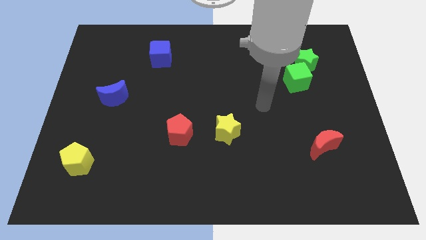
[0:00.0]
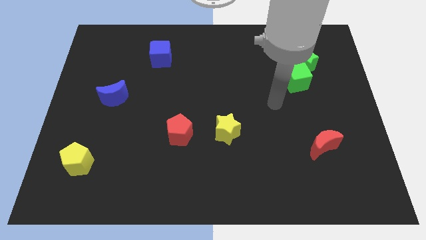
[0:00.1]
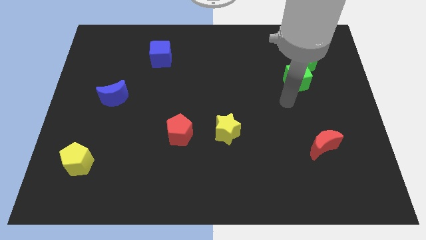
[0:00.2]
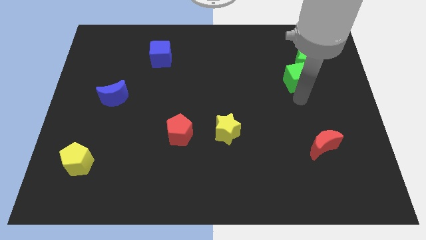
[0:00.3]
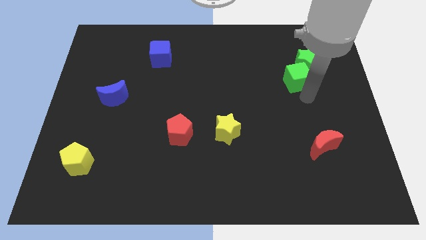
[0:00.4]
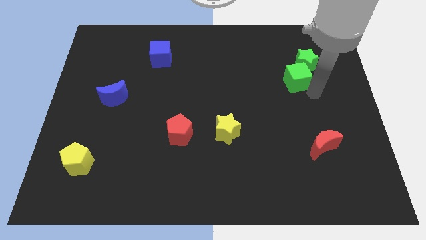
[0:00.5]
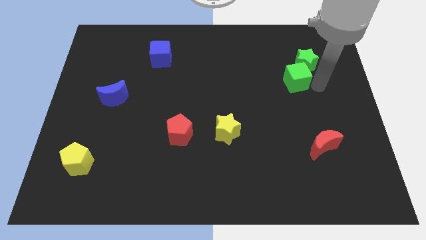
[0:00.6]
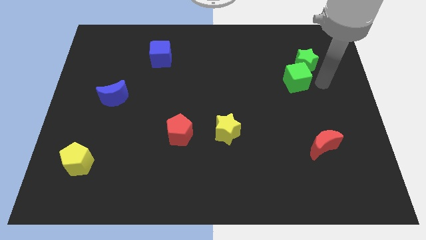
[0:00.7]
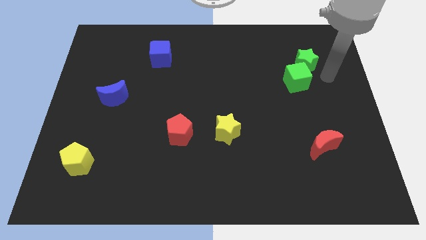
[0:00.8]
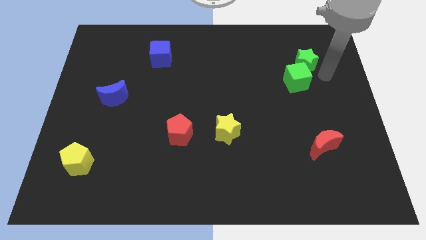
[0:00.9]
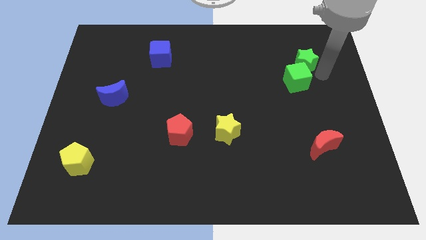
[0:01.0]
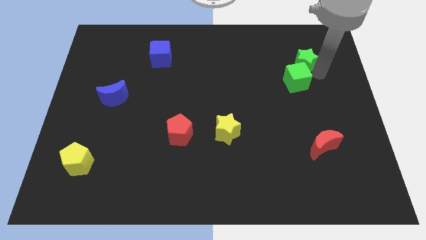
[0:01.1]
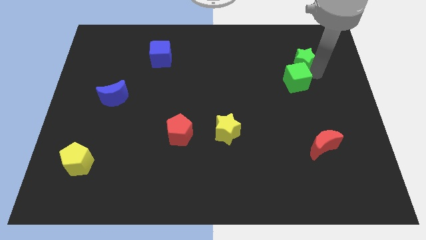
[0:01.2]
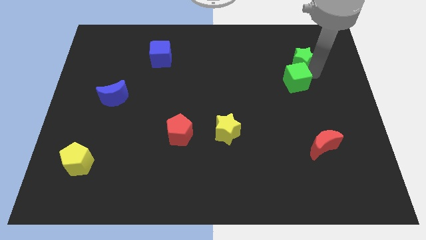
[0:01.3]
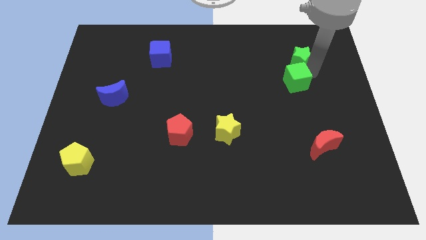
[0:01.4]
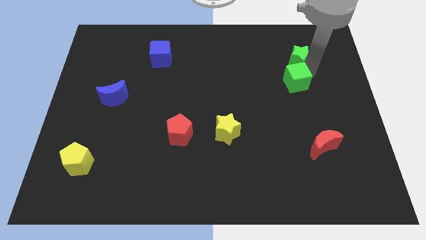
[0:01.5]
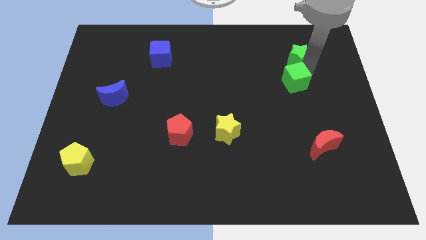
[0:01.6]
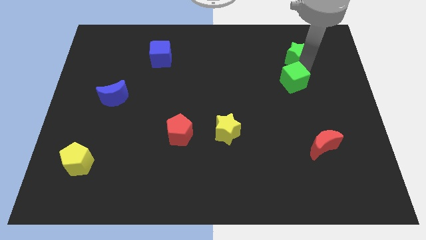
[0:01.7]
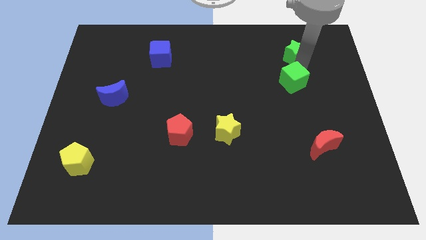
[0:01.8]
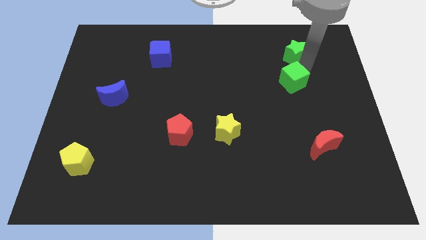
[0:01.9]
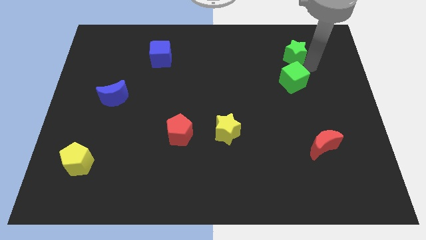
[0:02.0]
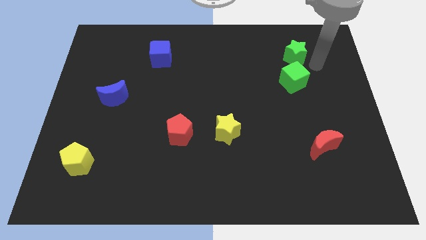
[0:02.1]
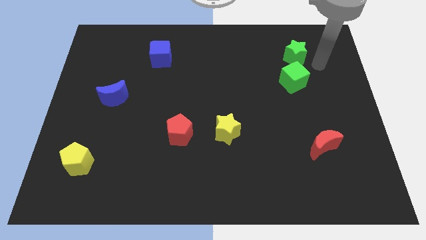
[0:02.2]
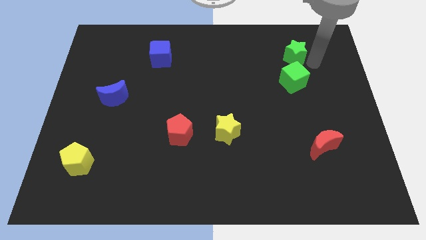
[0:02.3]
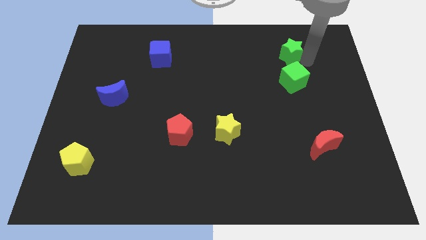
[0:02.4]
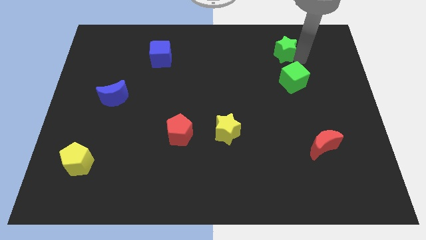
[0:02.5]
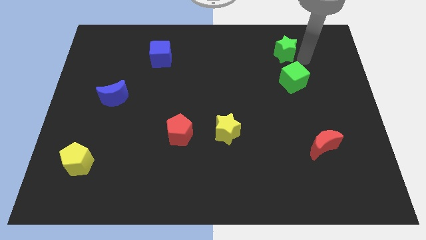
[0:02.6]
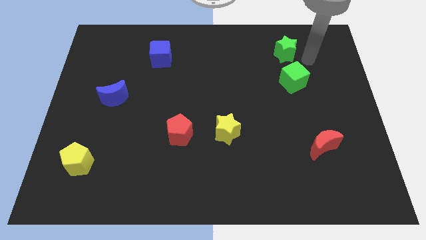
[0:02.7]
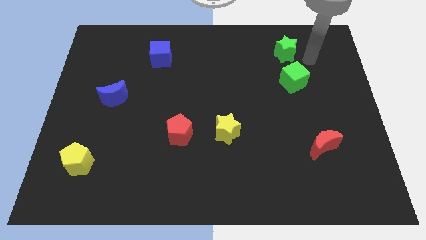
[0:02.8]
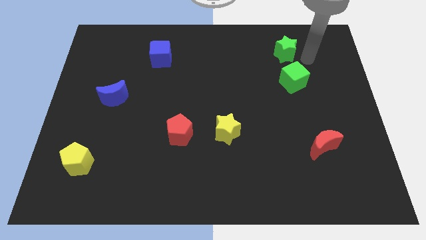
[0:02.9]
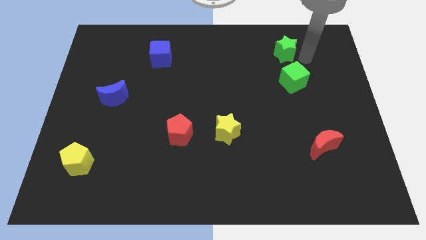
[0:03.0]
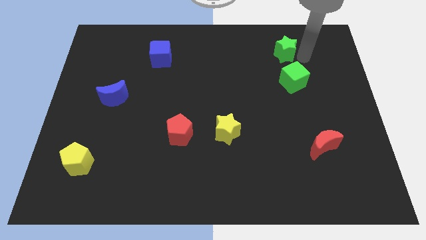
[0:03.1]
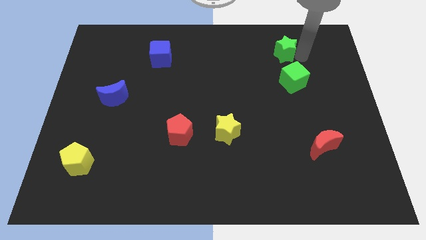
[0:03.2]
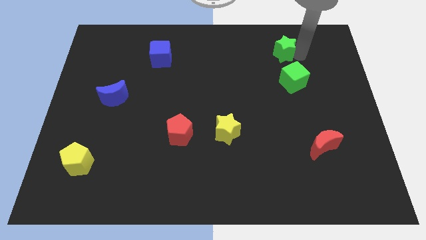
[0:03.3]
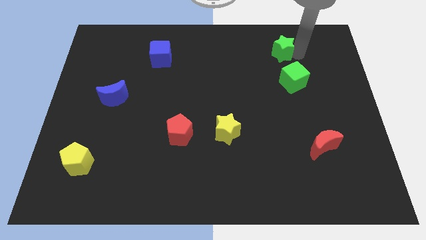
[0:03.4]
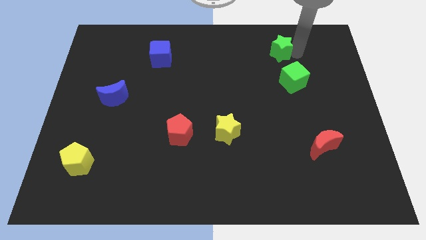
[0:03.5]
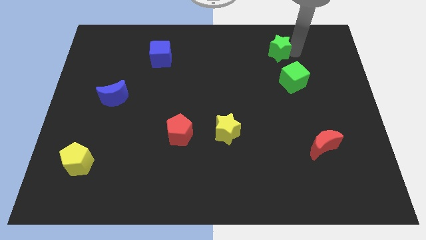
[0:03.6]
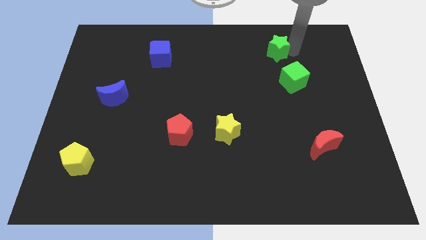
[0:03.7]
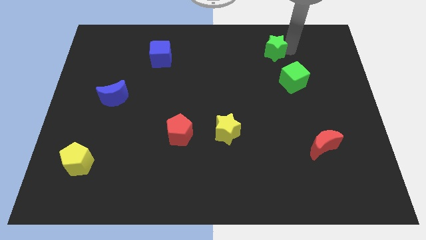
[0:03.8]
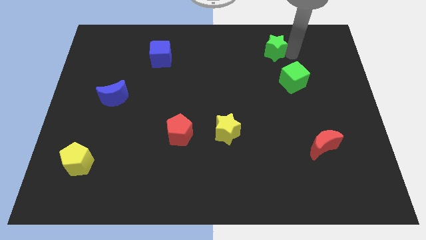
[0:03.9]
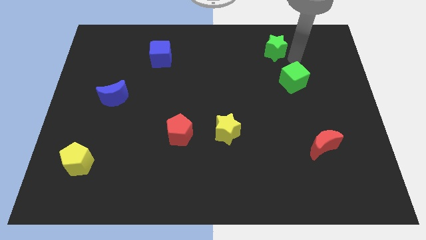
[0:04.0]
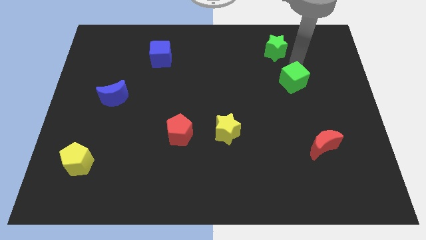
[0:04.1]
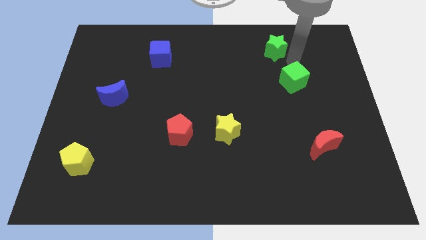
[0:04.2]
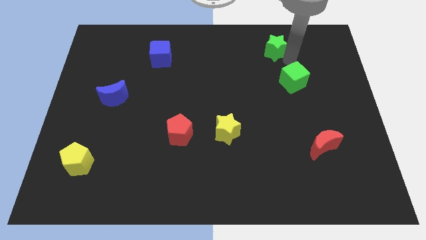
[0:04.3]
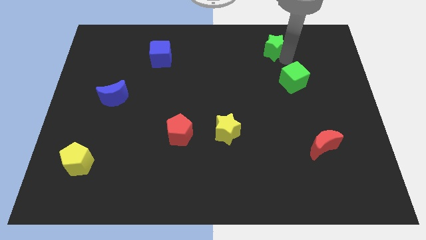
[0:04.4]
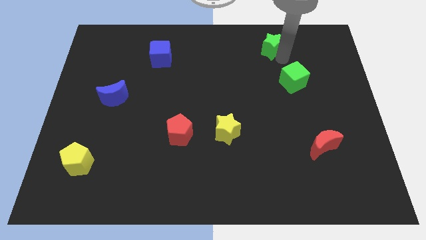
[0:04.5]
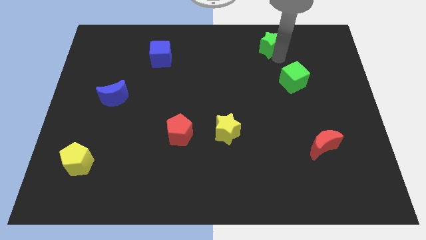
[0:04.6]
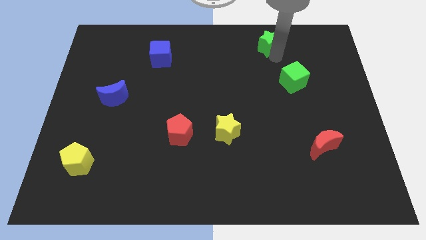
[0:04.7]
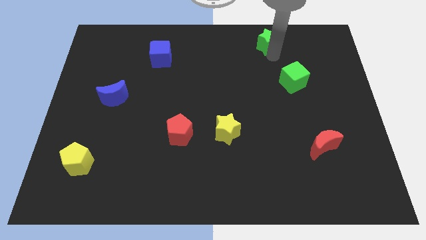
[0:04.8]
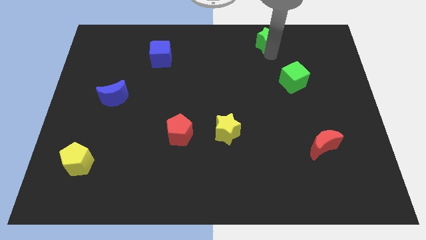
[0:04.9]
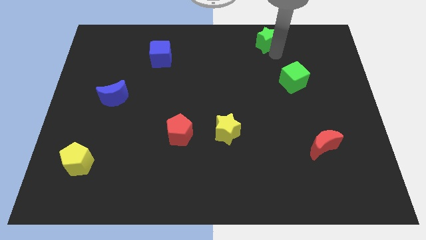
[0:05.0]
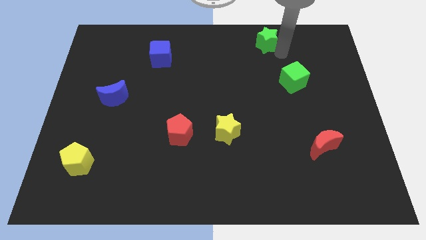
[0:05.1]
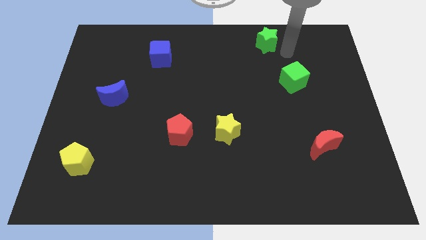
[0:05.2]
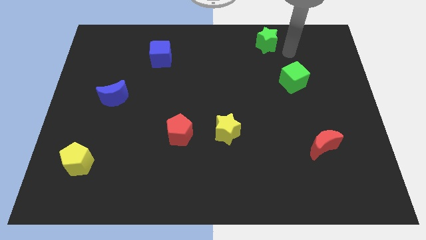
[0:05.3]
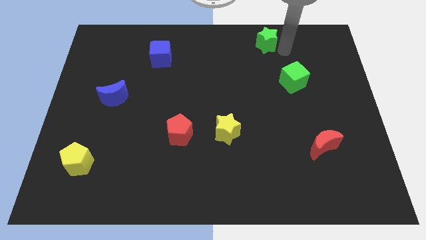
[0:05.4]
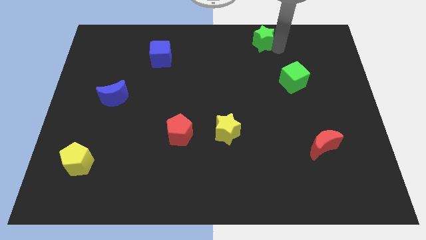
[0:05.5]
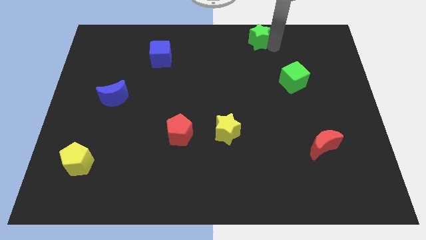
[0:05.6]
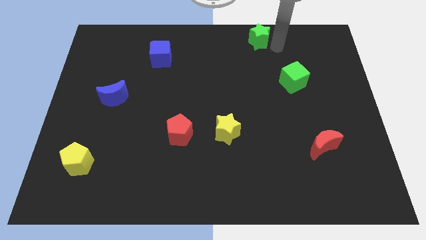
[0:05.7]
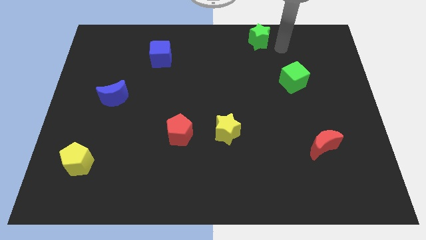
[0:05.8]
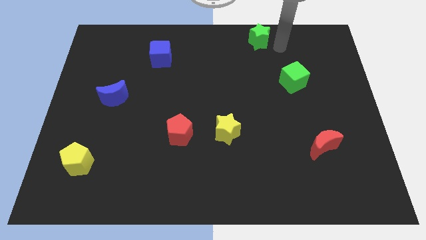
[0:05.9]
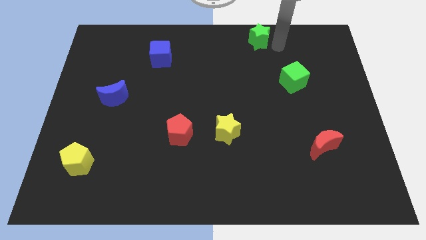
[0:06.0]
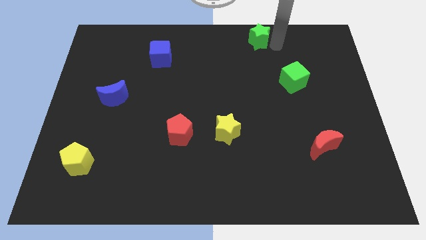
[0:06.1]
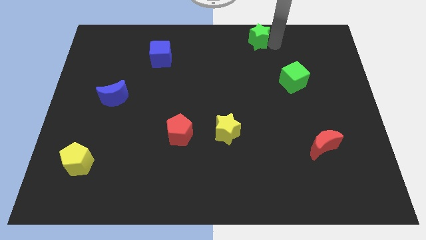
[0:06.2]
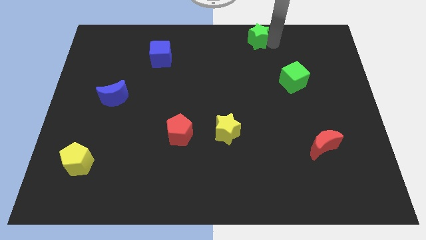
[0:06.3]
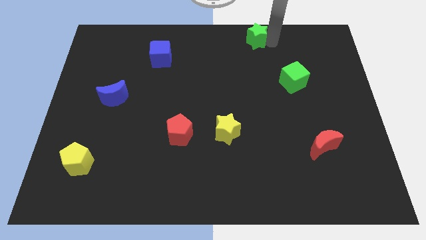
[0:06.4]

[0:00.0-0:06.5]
push the green star to the top side
